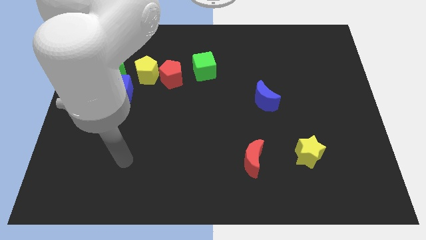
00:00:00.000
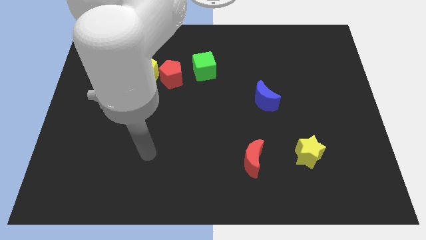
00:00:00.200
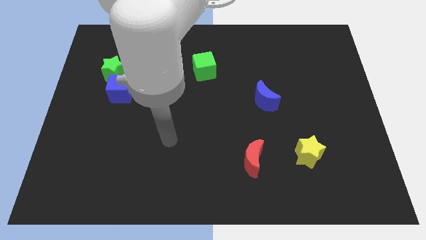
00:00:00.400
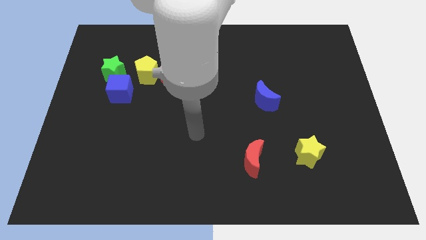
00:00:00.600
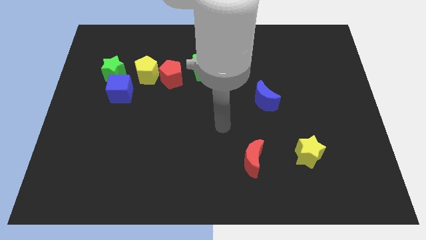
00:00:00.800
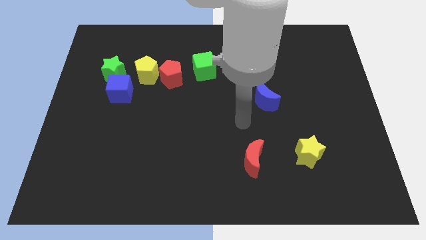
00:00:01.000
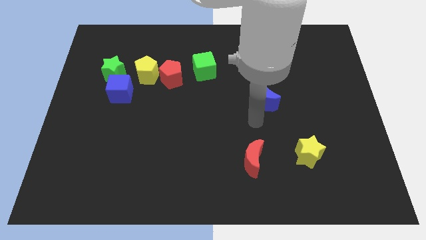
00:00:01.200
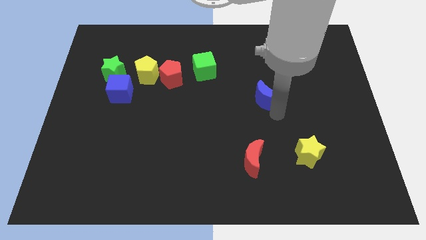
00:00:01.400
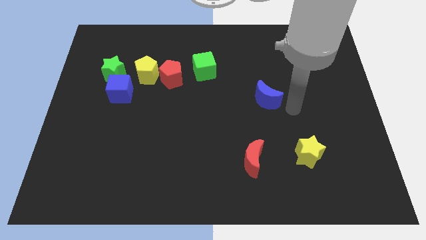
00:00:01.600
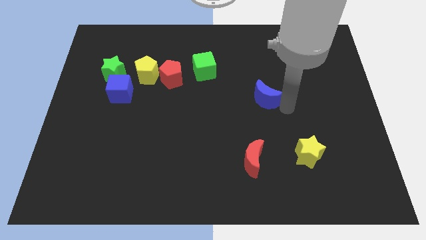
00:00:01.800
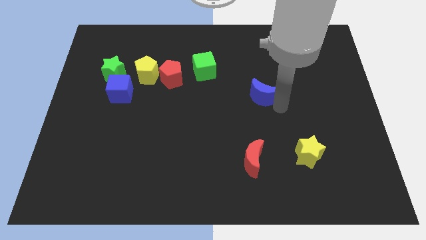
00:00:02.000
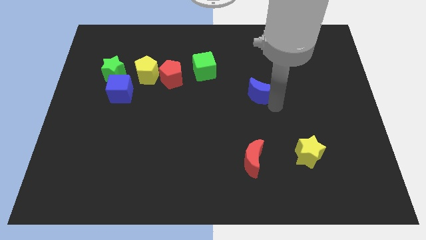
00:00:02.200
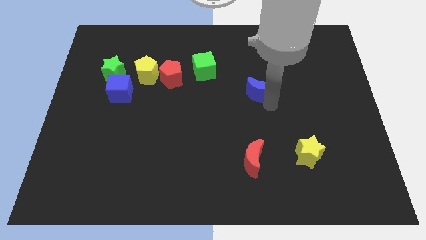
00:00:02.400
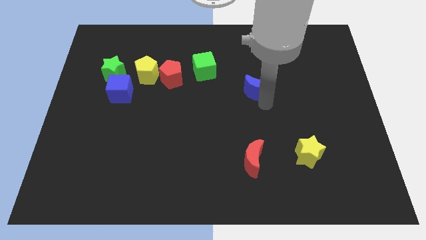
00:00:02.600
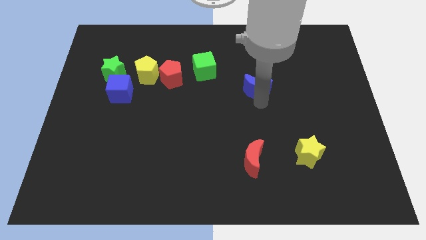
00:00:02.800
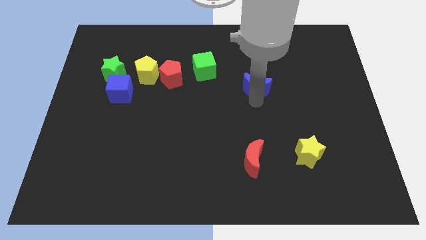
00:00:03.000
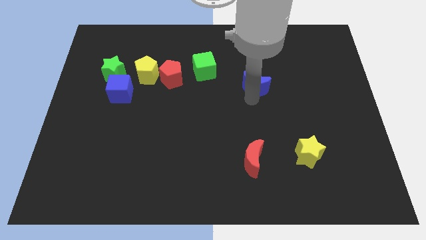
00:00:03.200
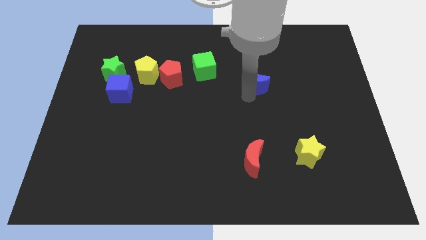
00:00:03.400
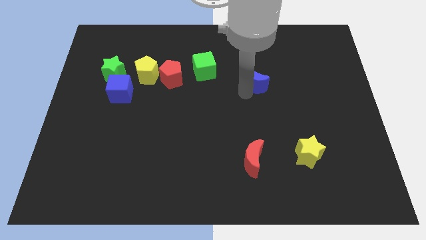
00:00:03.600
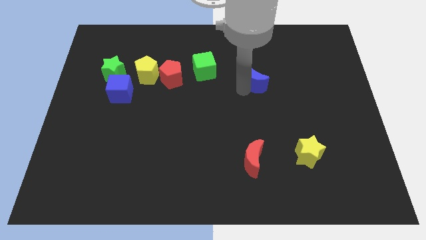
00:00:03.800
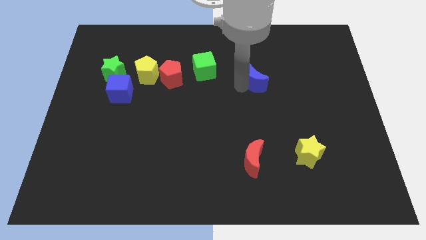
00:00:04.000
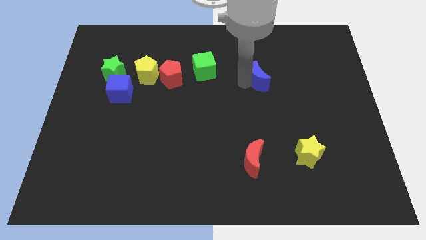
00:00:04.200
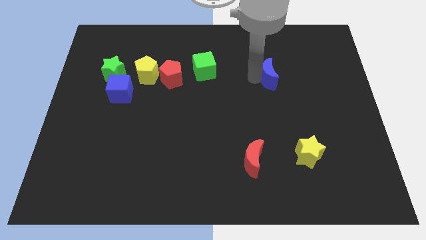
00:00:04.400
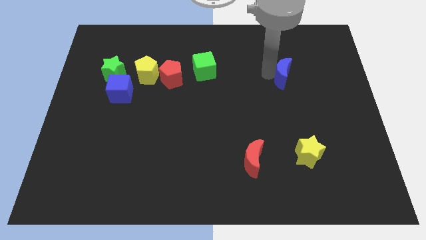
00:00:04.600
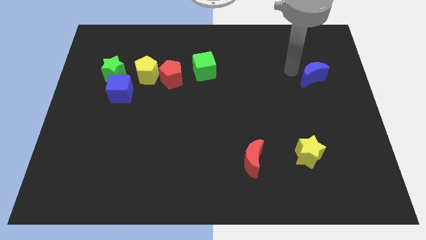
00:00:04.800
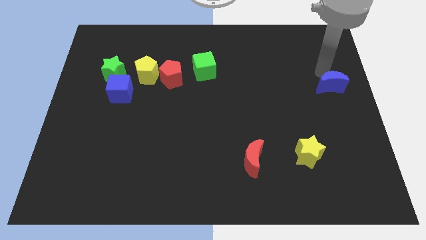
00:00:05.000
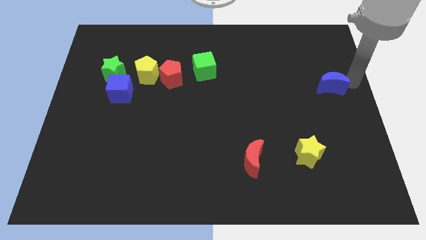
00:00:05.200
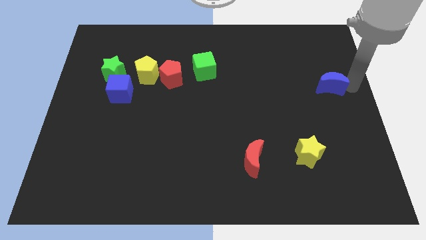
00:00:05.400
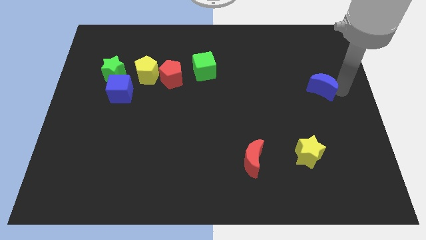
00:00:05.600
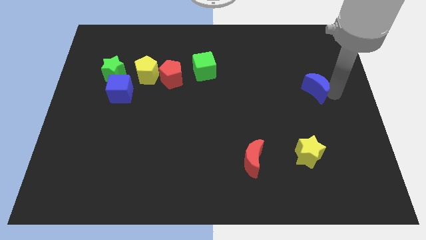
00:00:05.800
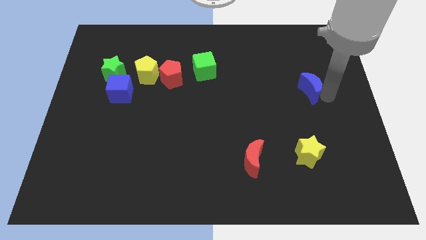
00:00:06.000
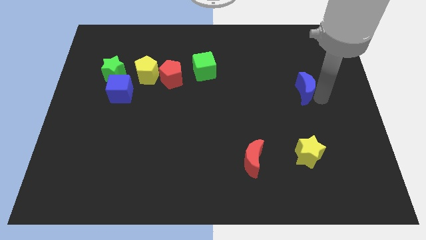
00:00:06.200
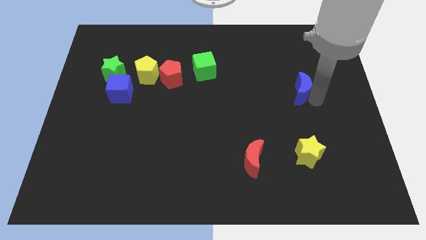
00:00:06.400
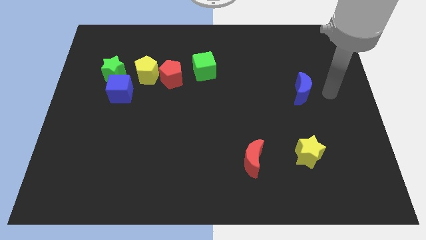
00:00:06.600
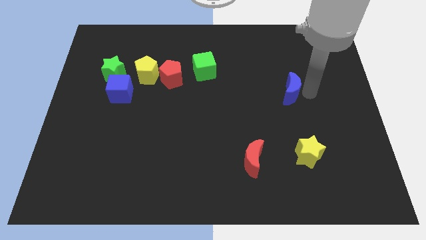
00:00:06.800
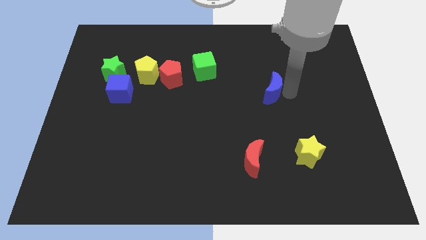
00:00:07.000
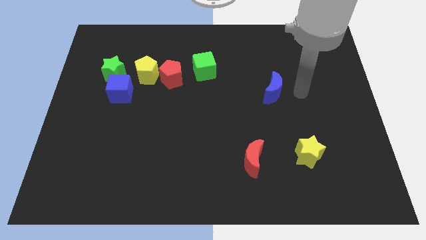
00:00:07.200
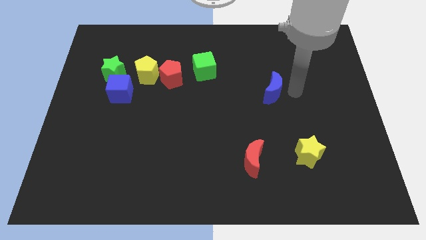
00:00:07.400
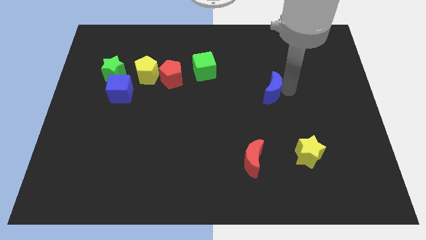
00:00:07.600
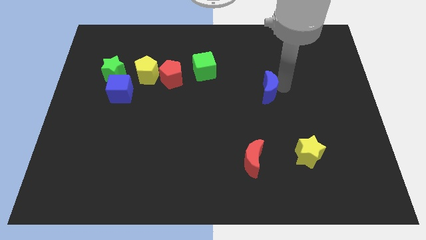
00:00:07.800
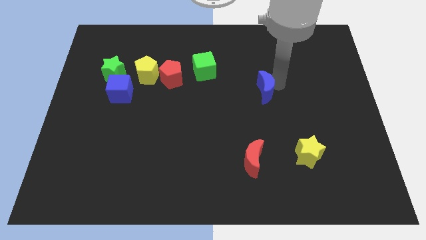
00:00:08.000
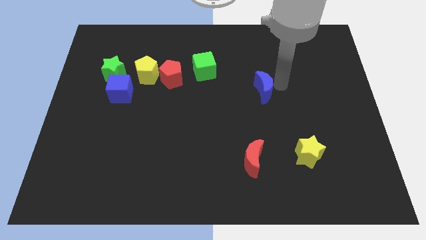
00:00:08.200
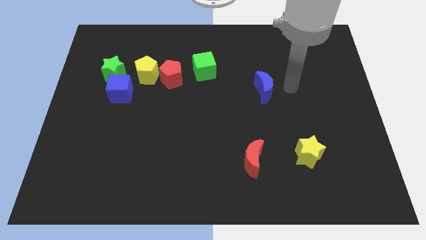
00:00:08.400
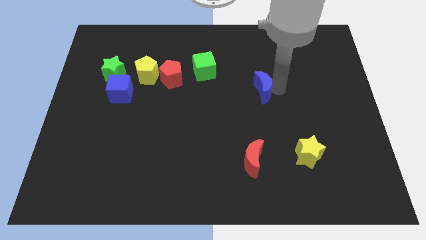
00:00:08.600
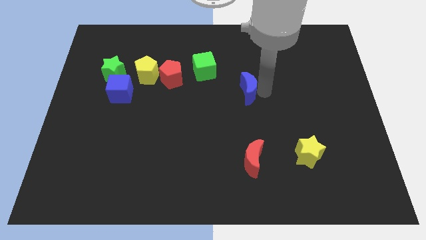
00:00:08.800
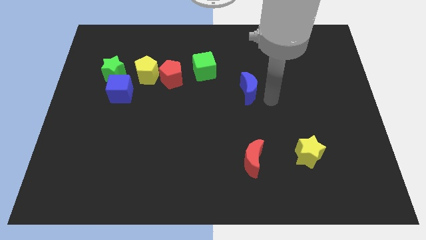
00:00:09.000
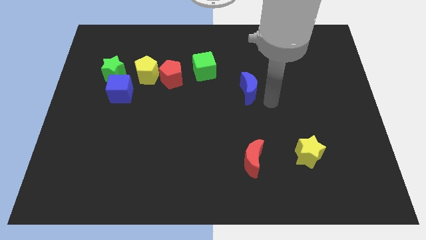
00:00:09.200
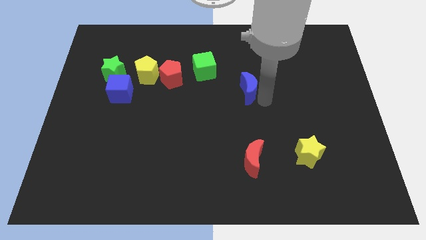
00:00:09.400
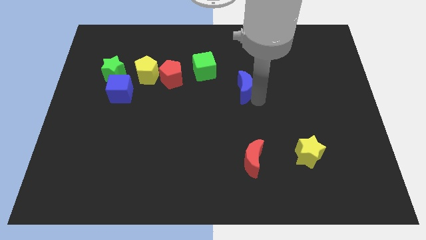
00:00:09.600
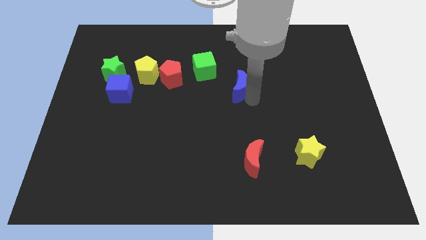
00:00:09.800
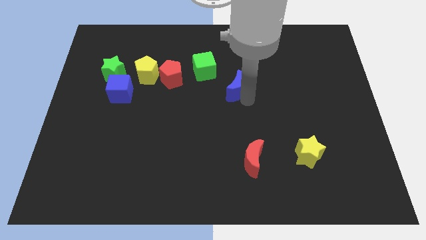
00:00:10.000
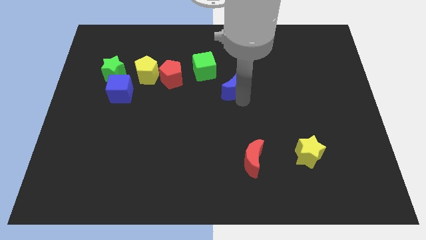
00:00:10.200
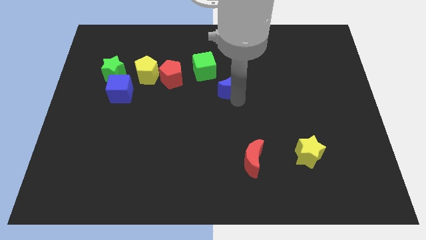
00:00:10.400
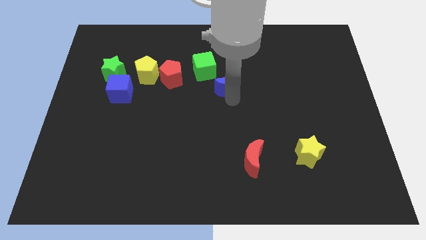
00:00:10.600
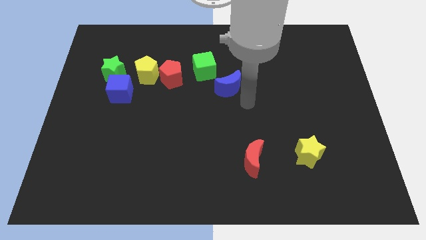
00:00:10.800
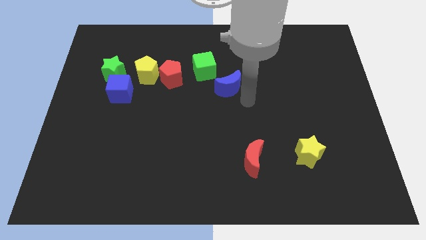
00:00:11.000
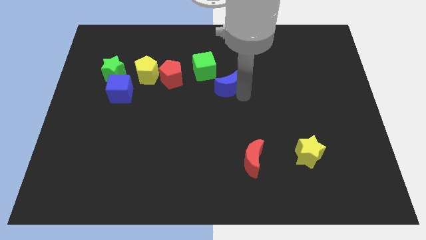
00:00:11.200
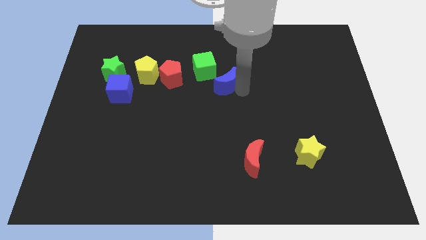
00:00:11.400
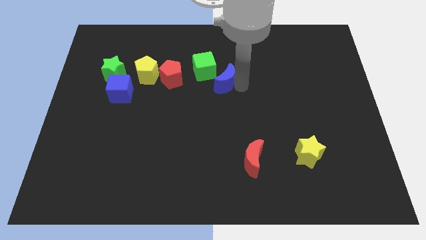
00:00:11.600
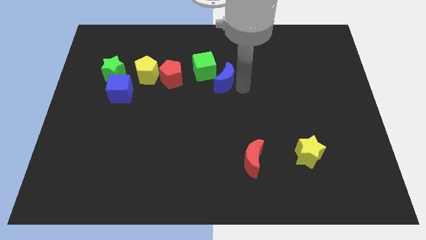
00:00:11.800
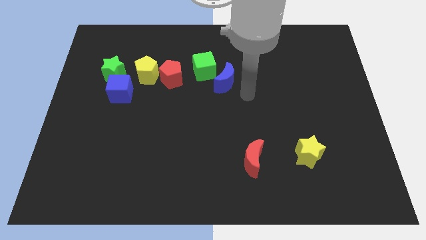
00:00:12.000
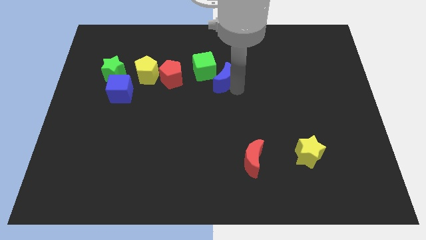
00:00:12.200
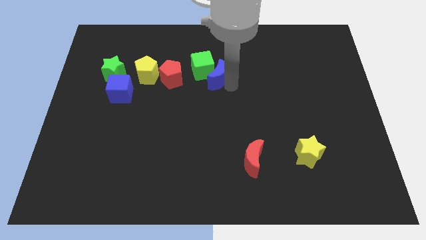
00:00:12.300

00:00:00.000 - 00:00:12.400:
slide the blue moon close to the green cube

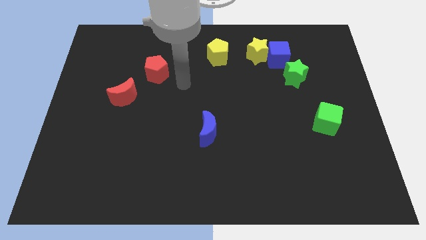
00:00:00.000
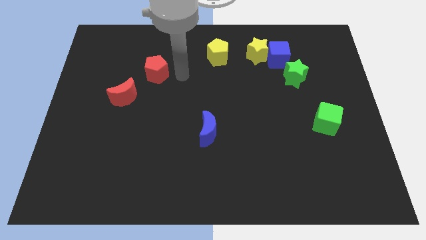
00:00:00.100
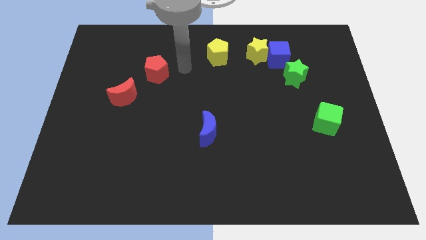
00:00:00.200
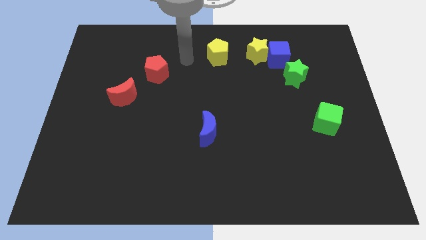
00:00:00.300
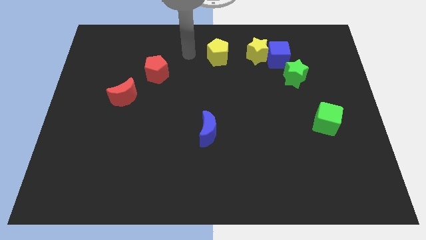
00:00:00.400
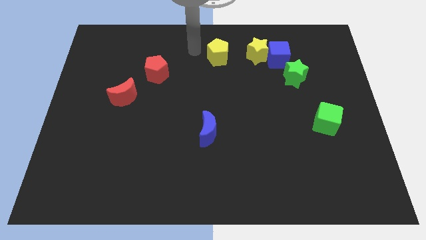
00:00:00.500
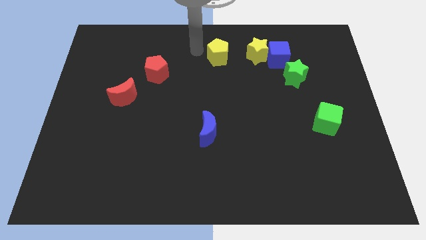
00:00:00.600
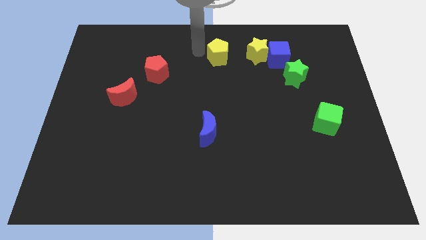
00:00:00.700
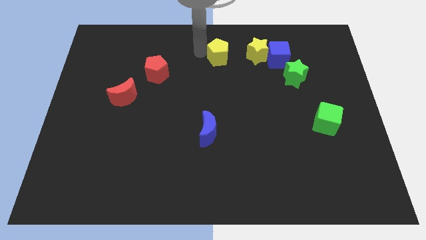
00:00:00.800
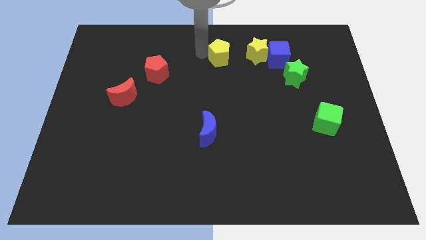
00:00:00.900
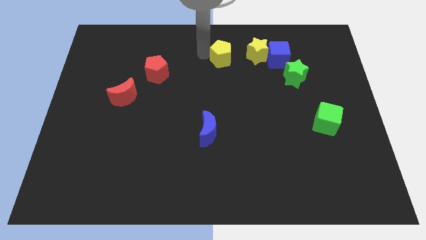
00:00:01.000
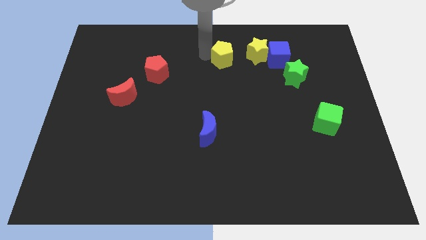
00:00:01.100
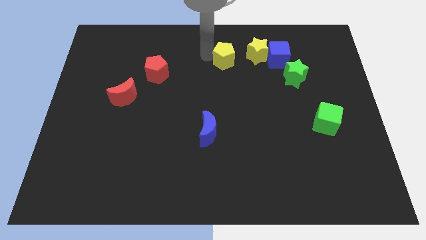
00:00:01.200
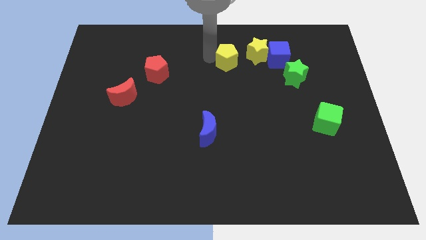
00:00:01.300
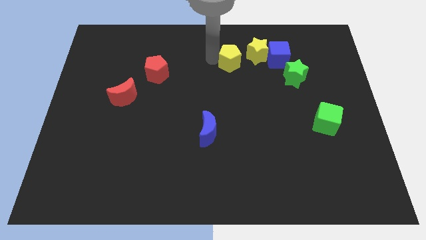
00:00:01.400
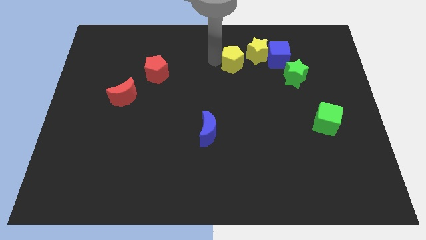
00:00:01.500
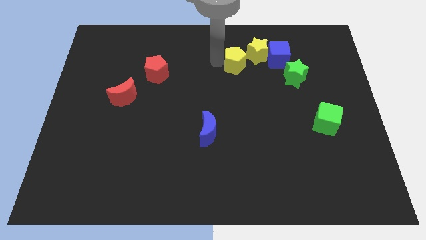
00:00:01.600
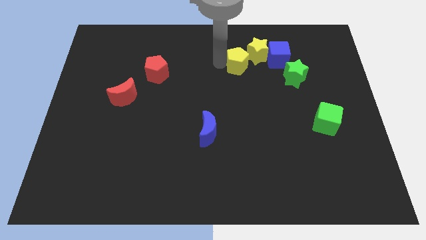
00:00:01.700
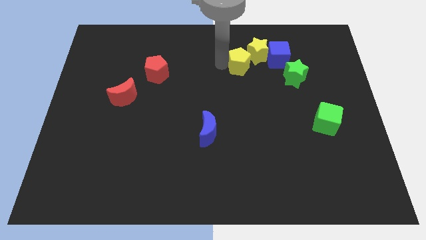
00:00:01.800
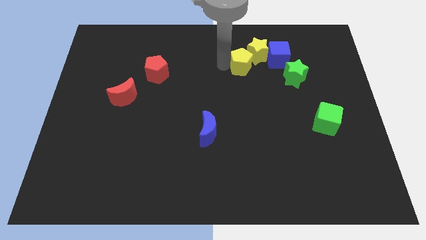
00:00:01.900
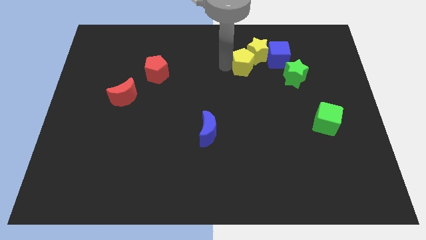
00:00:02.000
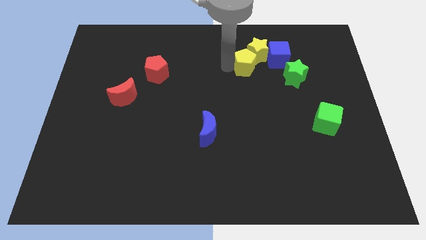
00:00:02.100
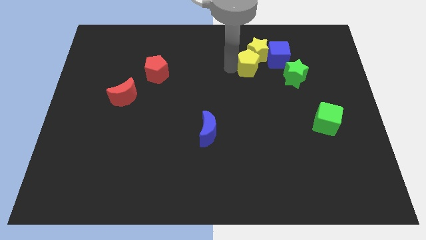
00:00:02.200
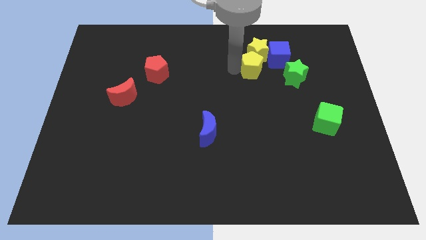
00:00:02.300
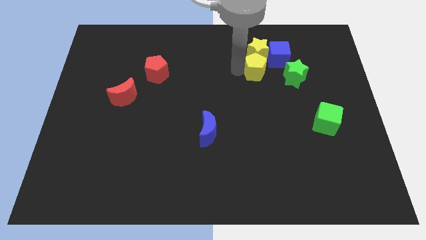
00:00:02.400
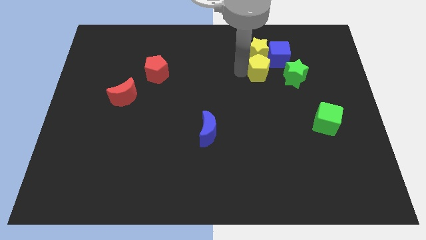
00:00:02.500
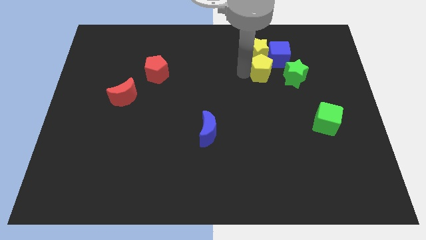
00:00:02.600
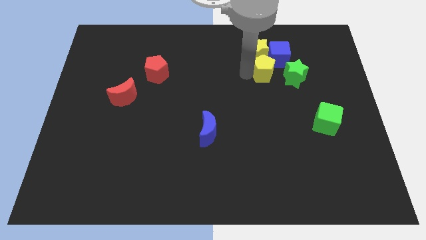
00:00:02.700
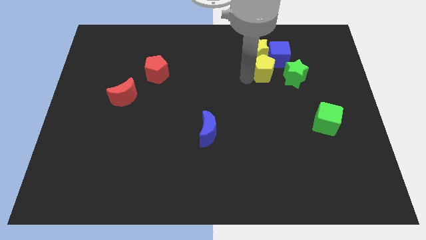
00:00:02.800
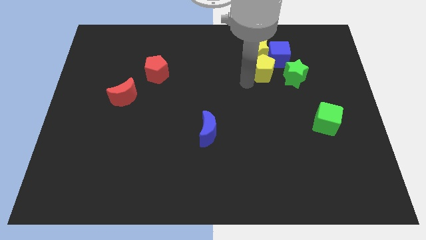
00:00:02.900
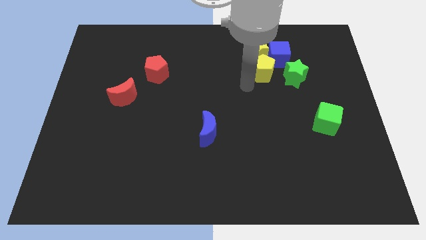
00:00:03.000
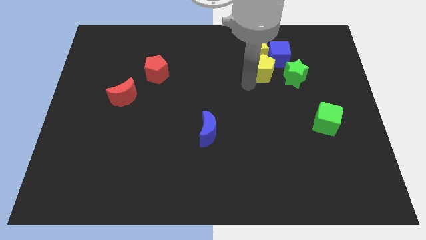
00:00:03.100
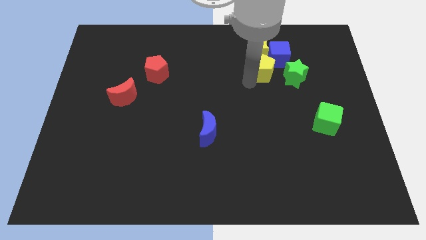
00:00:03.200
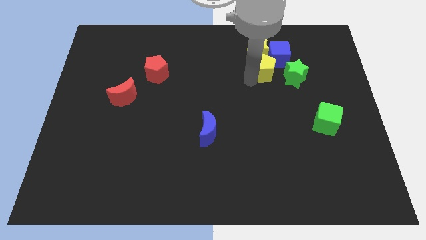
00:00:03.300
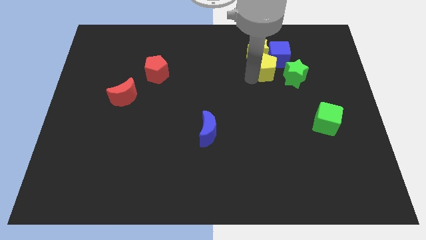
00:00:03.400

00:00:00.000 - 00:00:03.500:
slide the yellow pentagon towards the blue cube
